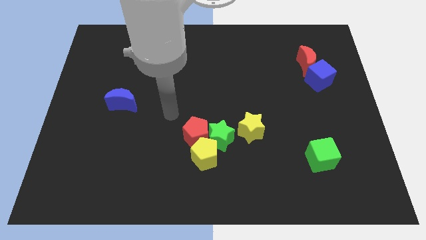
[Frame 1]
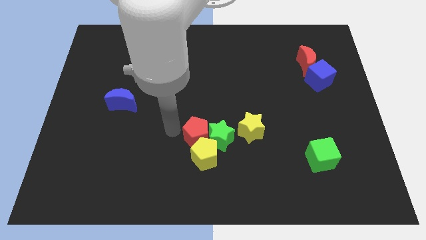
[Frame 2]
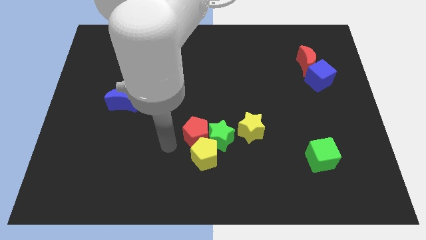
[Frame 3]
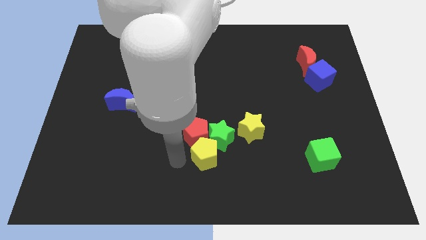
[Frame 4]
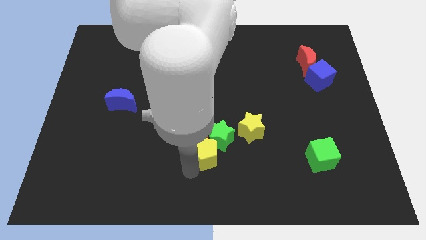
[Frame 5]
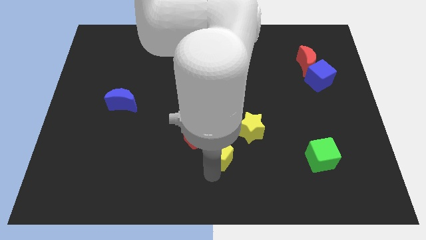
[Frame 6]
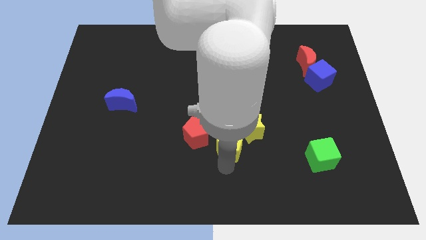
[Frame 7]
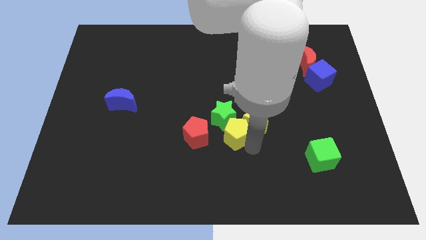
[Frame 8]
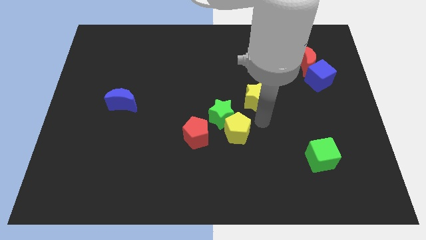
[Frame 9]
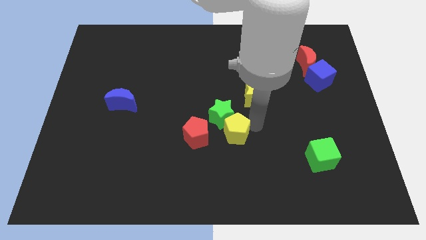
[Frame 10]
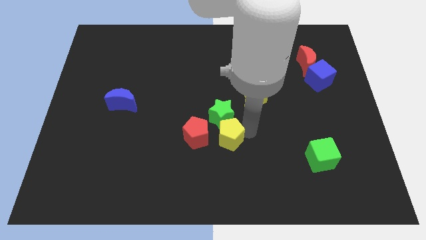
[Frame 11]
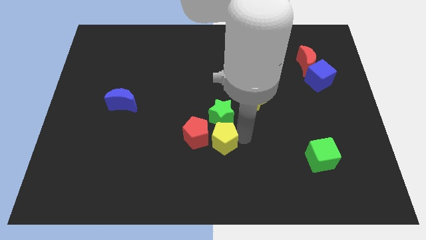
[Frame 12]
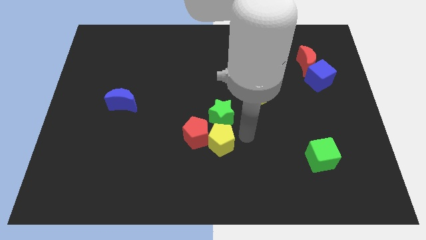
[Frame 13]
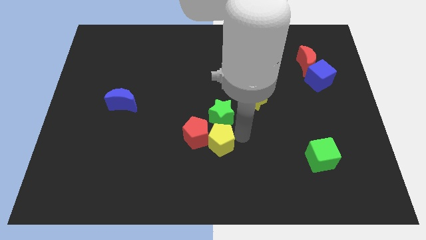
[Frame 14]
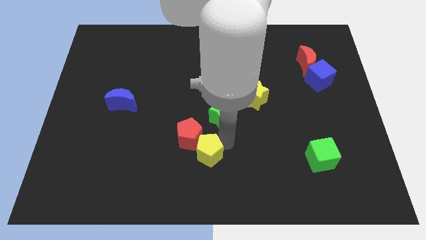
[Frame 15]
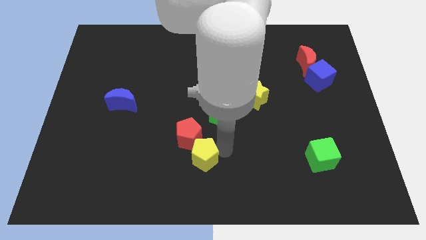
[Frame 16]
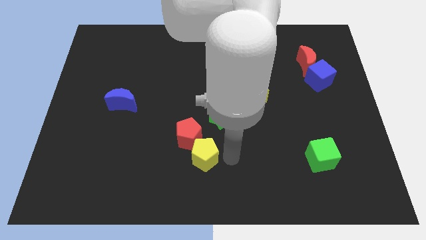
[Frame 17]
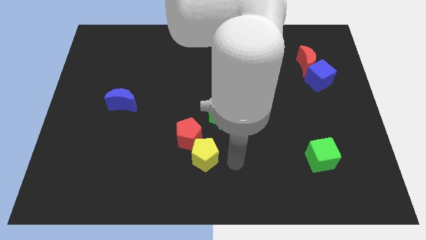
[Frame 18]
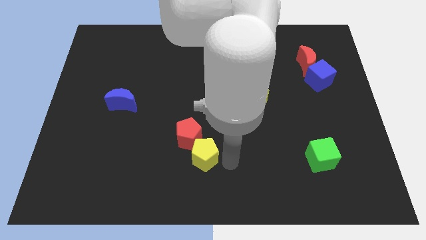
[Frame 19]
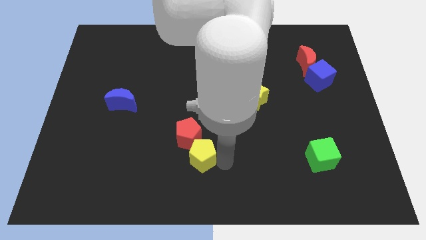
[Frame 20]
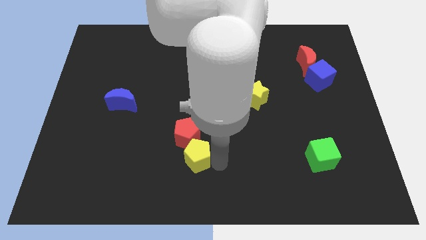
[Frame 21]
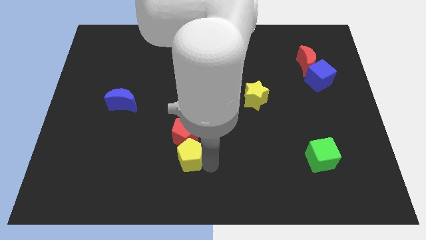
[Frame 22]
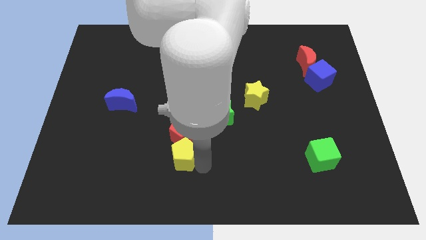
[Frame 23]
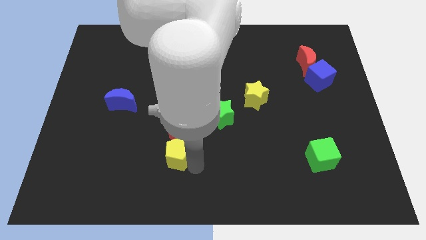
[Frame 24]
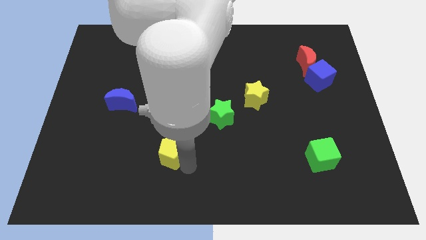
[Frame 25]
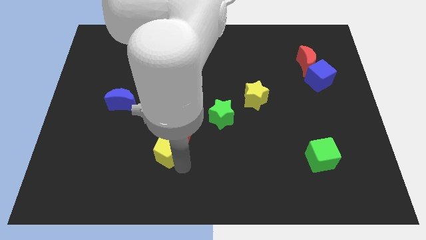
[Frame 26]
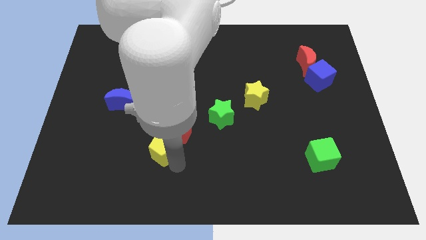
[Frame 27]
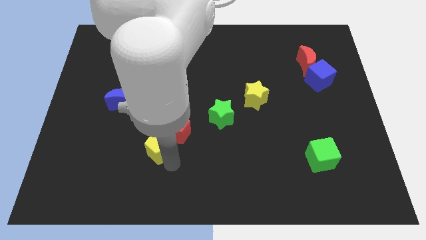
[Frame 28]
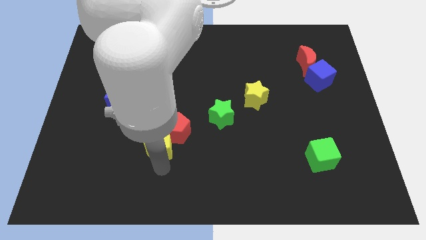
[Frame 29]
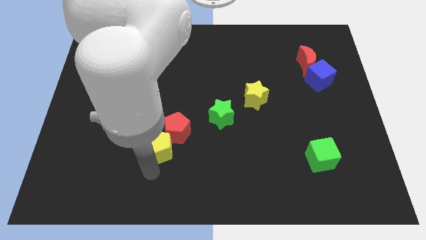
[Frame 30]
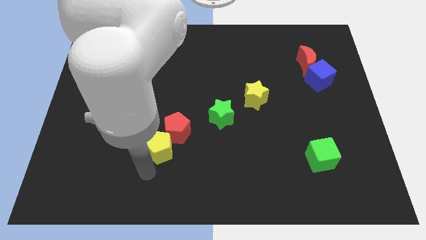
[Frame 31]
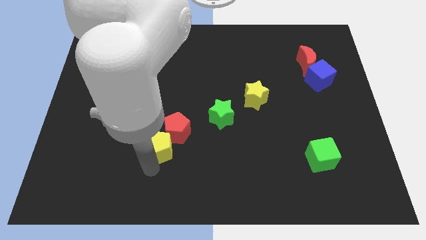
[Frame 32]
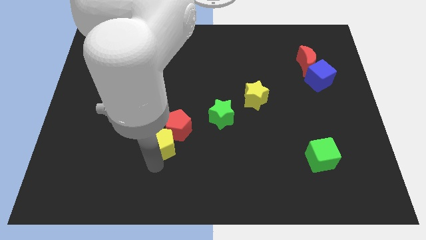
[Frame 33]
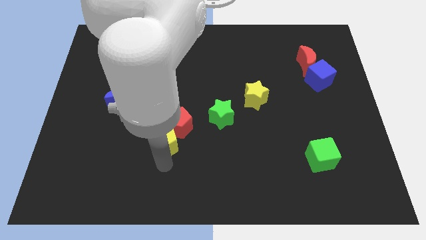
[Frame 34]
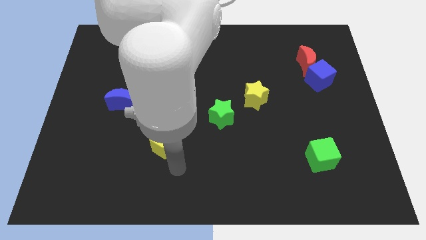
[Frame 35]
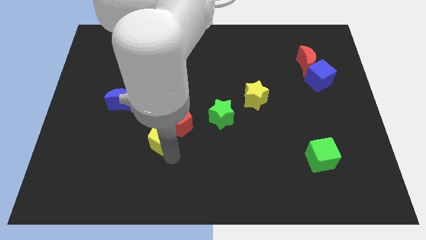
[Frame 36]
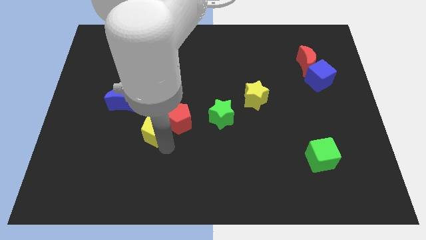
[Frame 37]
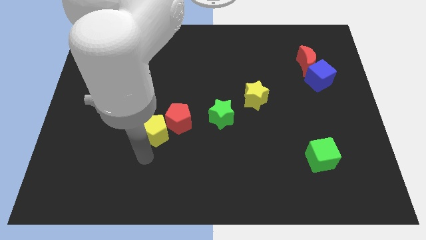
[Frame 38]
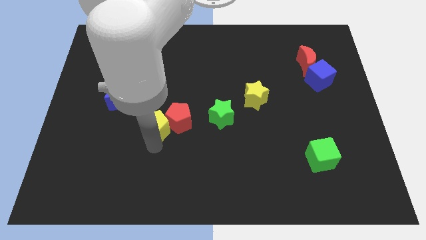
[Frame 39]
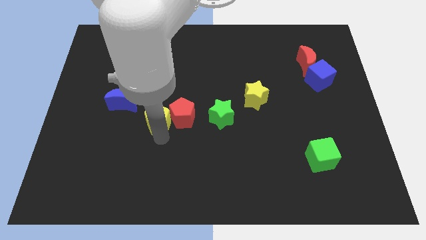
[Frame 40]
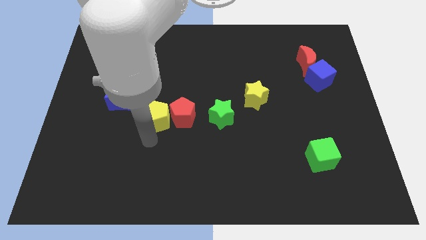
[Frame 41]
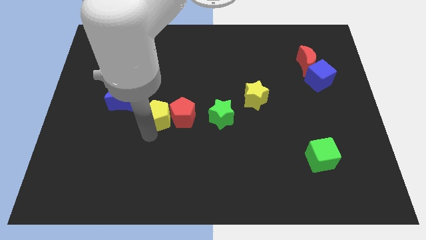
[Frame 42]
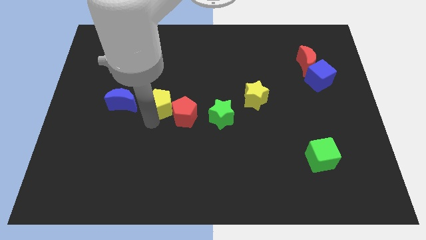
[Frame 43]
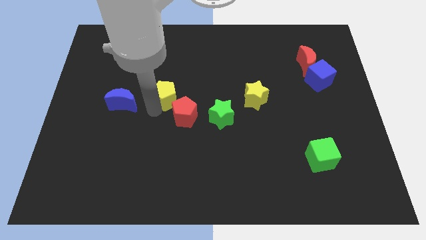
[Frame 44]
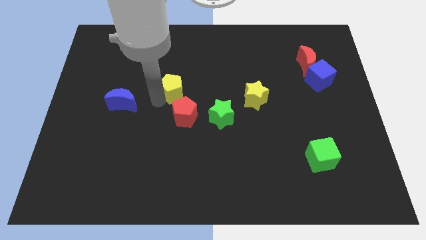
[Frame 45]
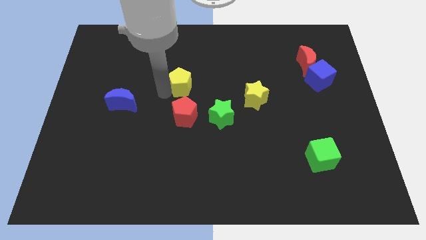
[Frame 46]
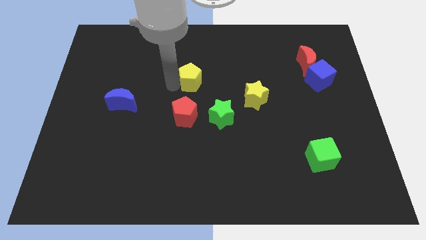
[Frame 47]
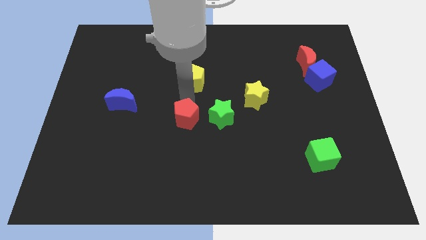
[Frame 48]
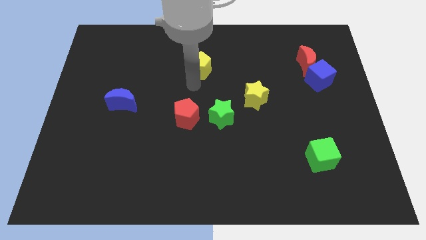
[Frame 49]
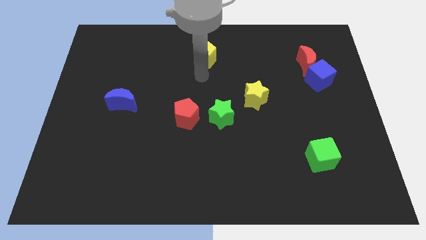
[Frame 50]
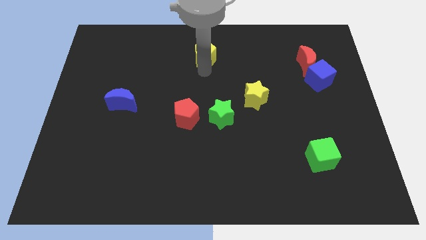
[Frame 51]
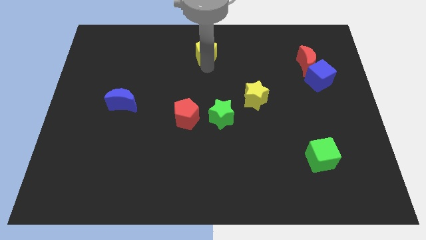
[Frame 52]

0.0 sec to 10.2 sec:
push the yellow pentagon to the top
